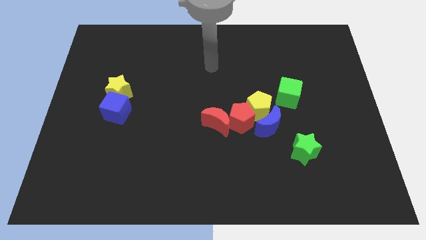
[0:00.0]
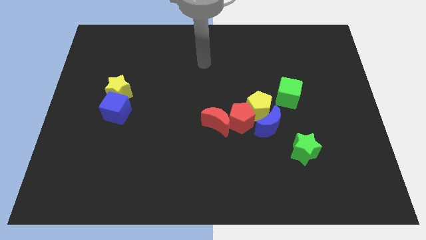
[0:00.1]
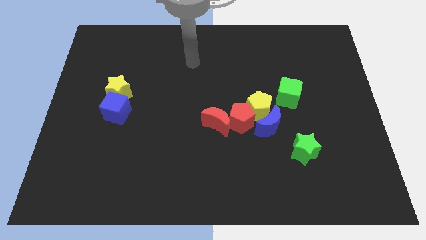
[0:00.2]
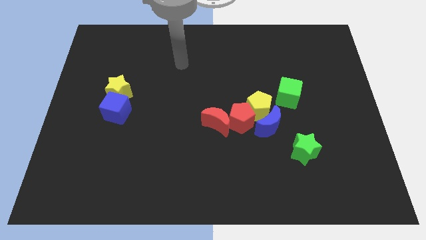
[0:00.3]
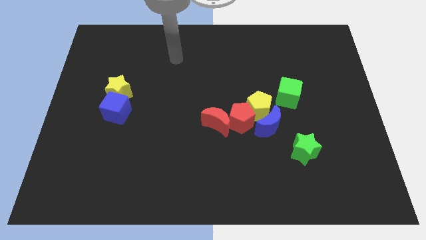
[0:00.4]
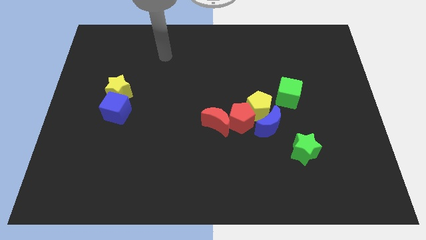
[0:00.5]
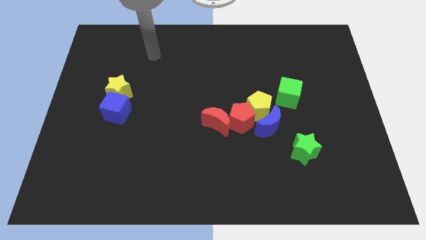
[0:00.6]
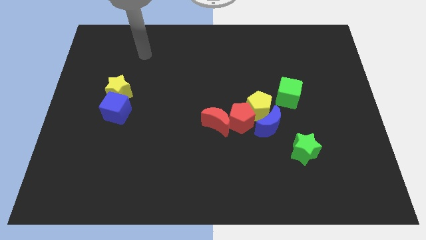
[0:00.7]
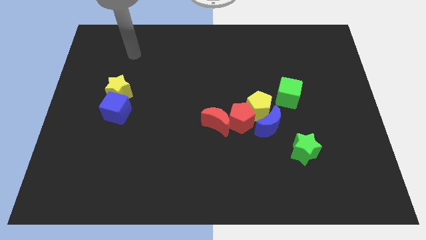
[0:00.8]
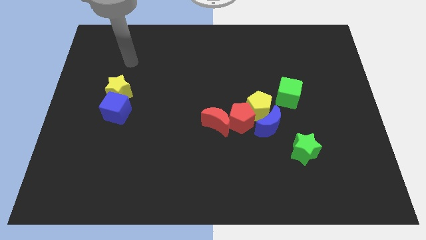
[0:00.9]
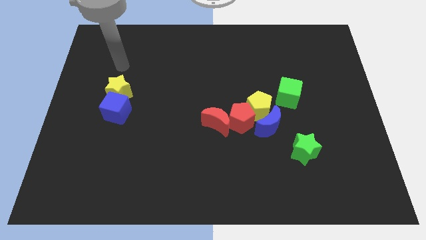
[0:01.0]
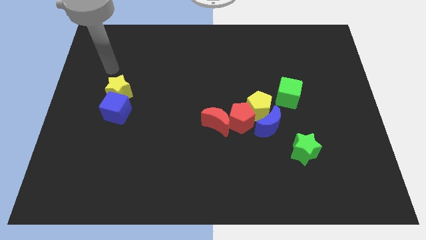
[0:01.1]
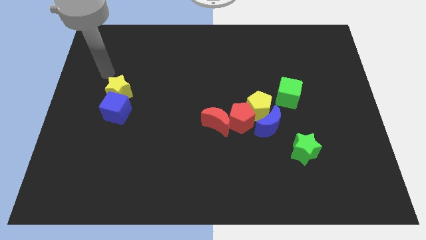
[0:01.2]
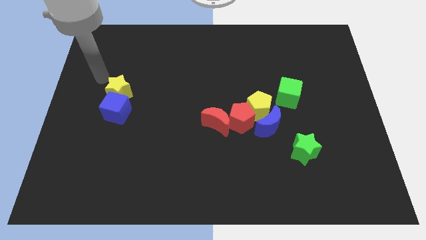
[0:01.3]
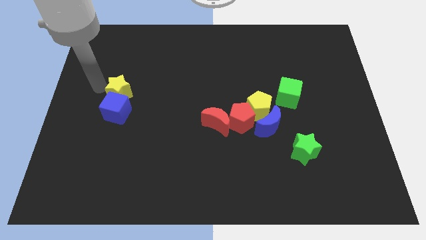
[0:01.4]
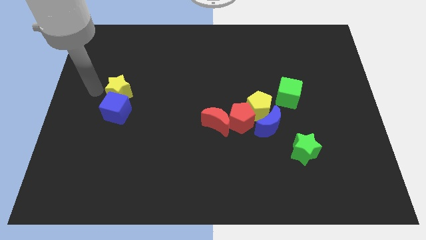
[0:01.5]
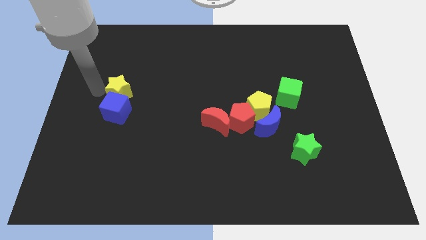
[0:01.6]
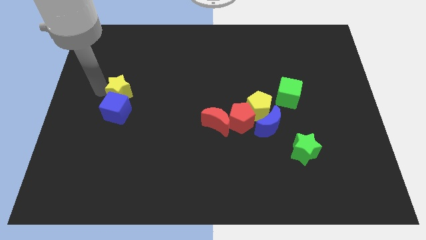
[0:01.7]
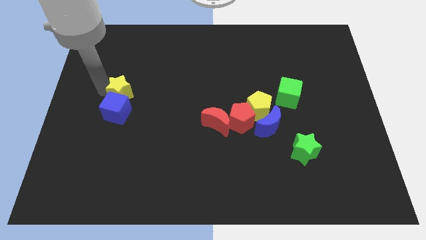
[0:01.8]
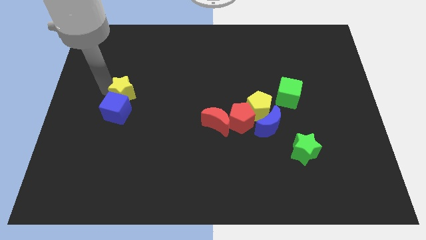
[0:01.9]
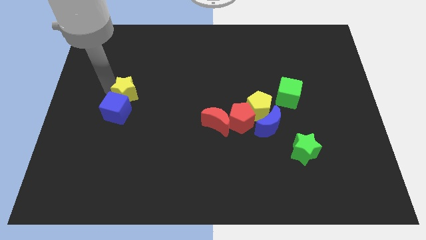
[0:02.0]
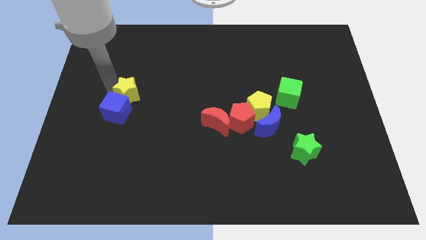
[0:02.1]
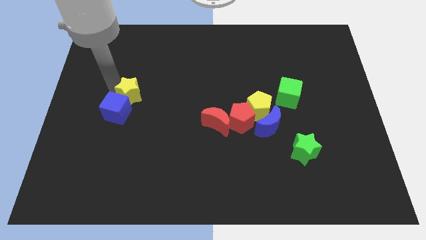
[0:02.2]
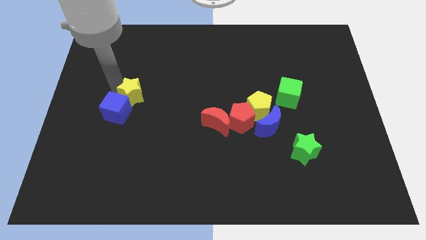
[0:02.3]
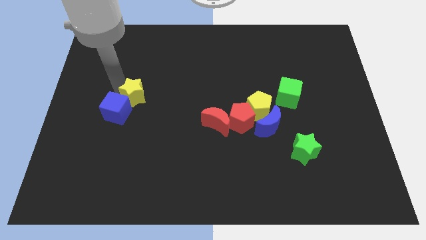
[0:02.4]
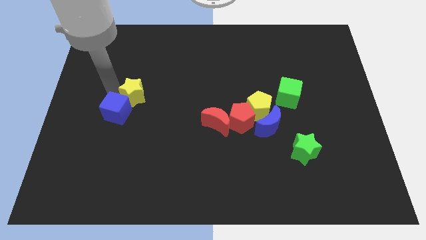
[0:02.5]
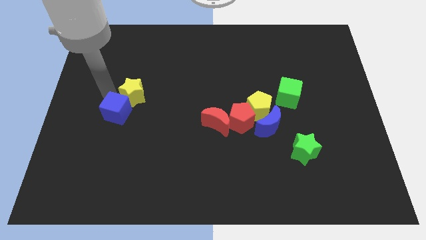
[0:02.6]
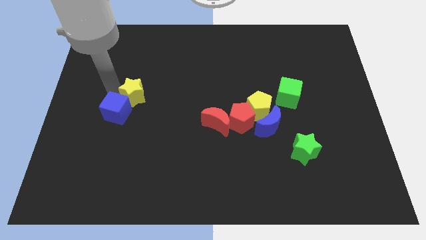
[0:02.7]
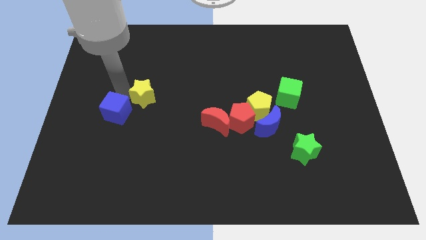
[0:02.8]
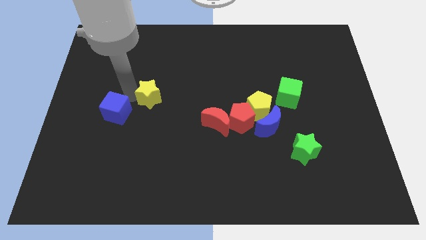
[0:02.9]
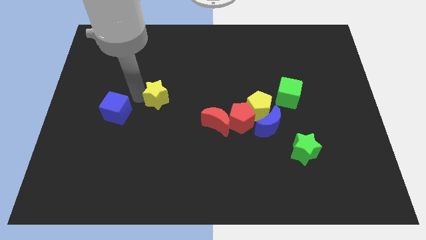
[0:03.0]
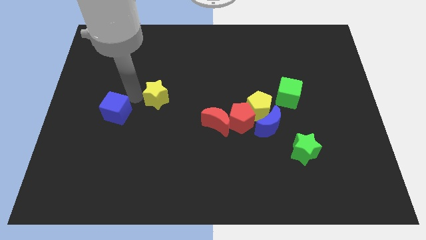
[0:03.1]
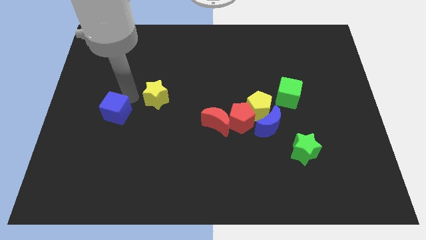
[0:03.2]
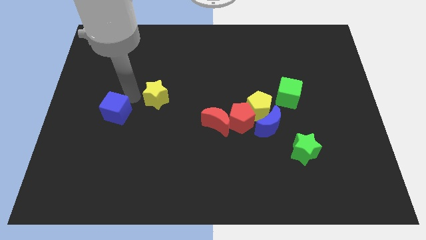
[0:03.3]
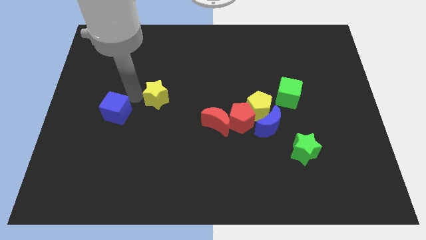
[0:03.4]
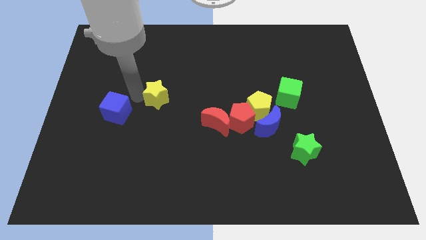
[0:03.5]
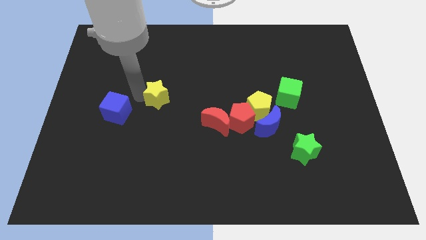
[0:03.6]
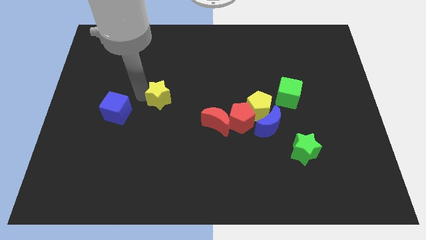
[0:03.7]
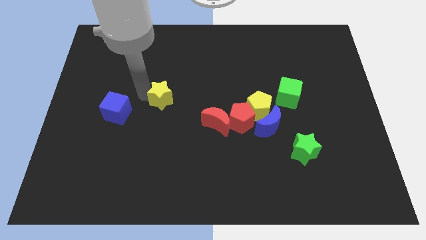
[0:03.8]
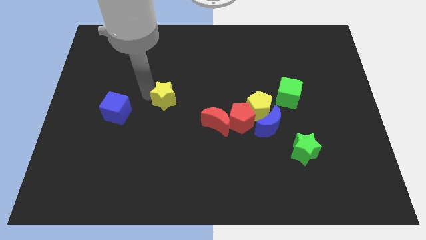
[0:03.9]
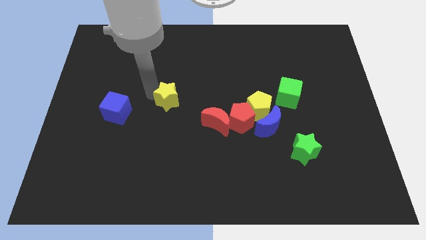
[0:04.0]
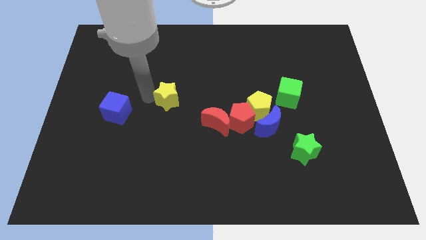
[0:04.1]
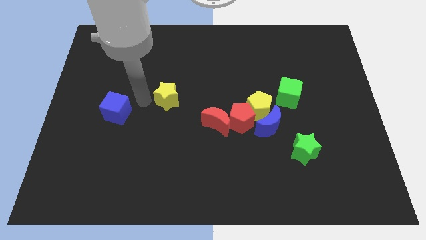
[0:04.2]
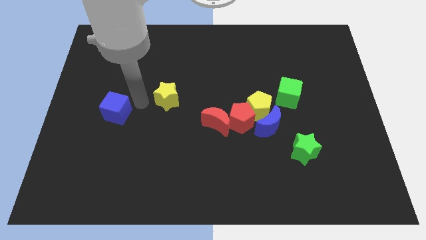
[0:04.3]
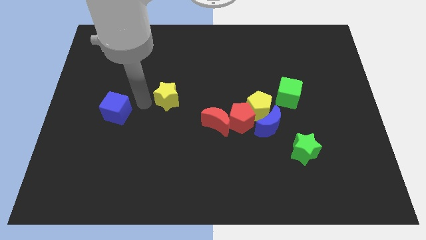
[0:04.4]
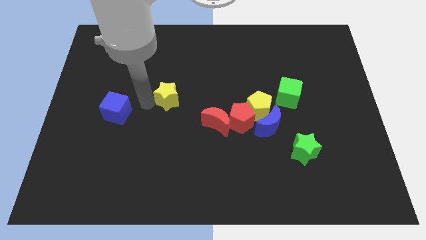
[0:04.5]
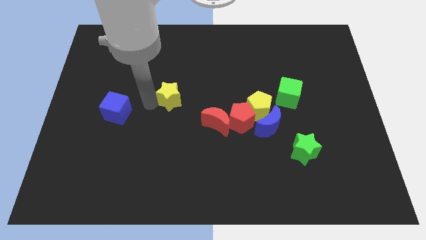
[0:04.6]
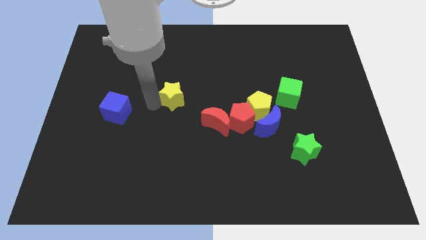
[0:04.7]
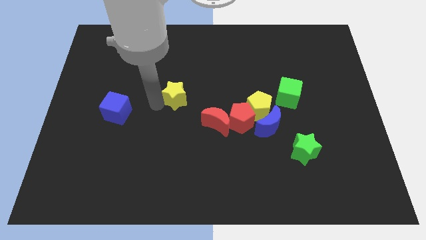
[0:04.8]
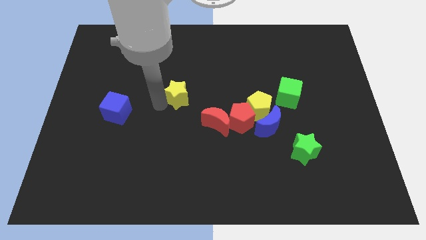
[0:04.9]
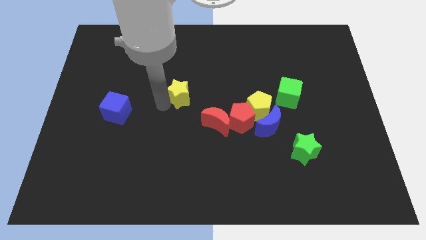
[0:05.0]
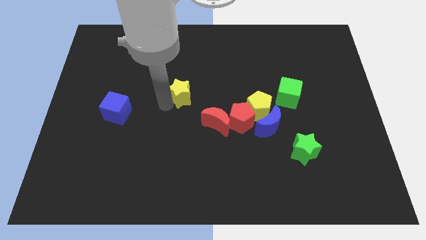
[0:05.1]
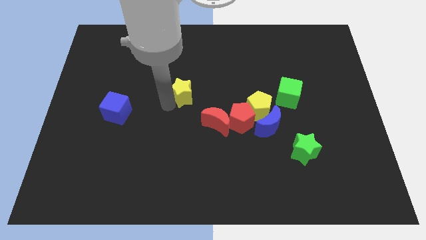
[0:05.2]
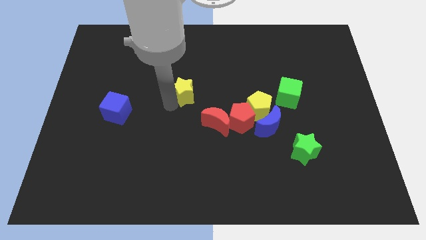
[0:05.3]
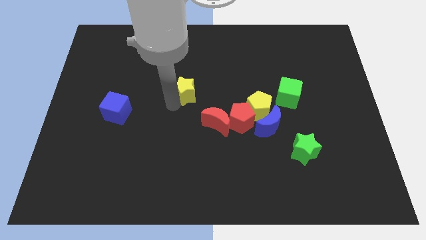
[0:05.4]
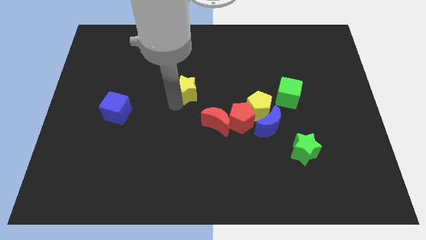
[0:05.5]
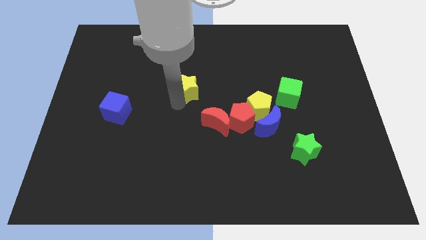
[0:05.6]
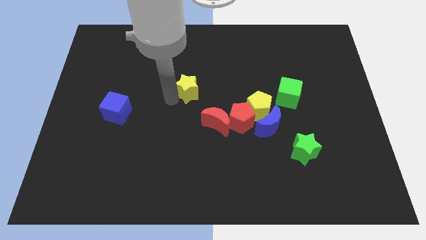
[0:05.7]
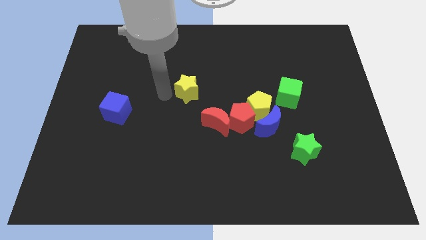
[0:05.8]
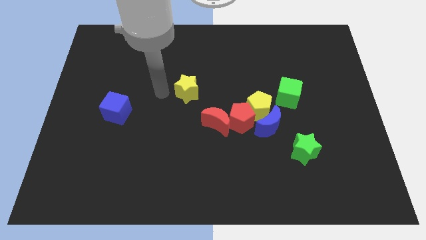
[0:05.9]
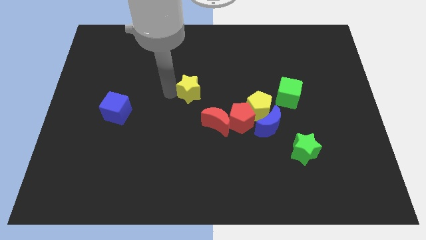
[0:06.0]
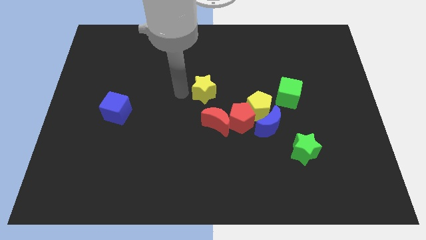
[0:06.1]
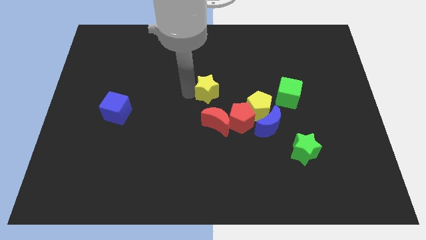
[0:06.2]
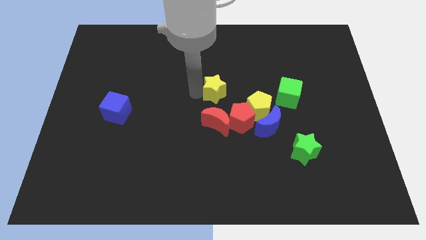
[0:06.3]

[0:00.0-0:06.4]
push the yellow star to the top left side of the yellow pentagon

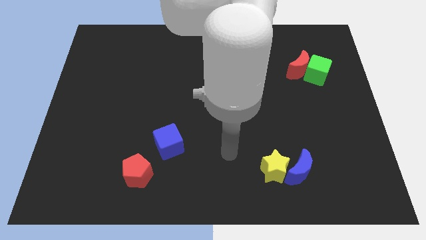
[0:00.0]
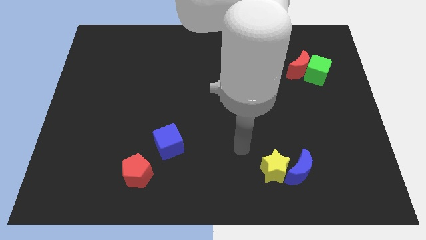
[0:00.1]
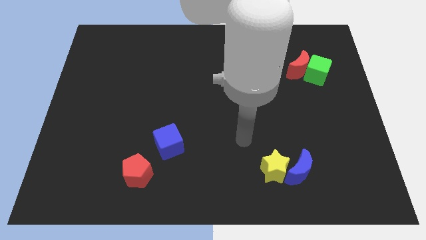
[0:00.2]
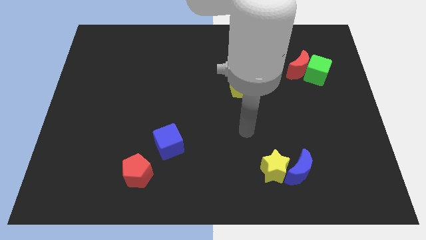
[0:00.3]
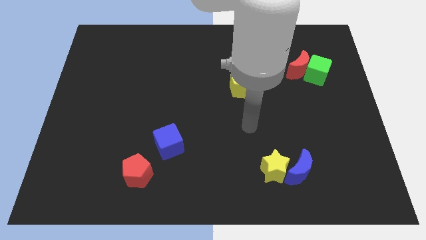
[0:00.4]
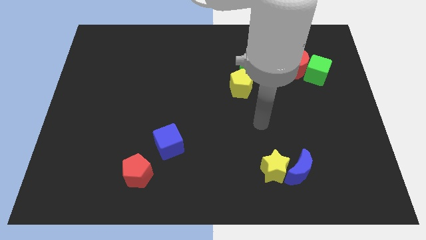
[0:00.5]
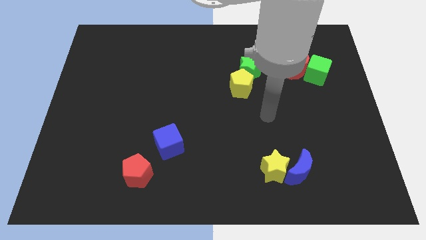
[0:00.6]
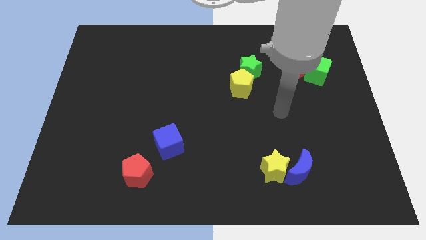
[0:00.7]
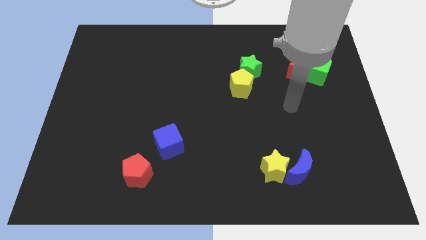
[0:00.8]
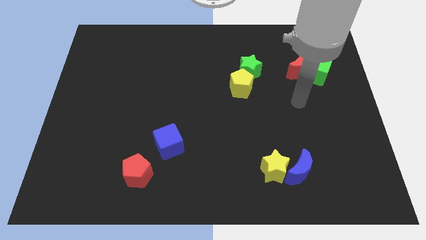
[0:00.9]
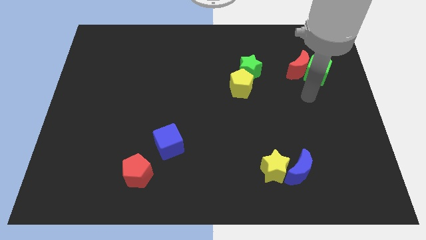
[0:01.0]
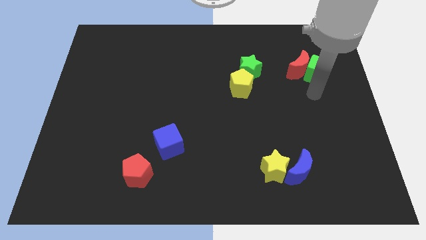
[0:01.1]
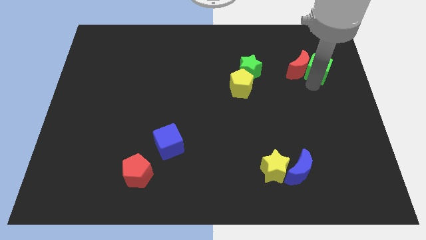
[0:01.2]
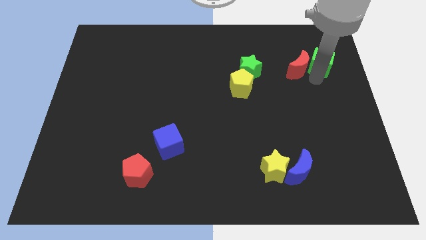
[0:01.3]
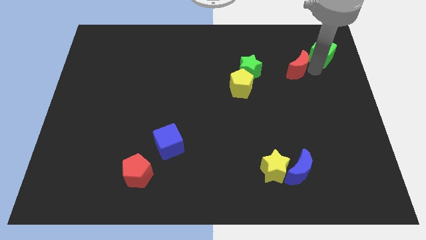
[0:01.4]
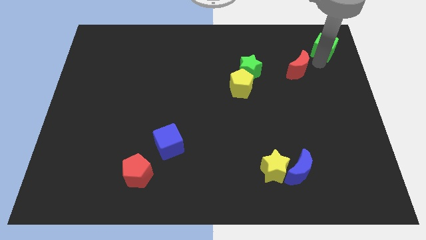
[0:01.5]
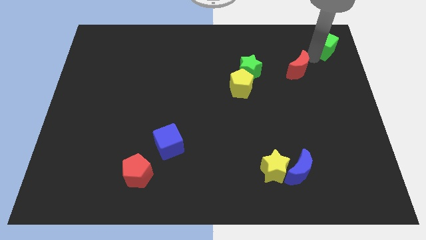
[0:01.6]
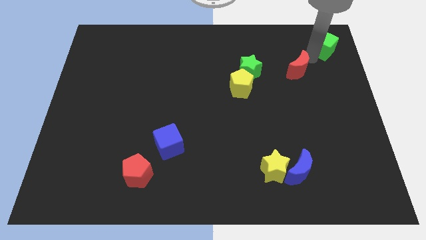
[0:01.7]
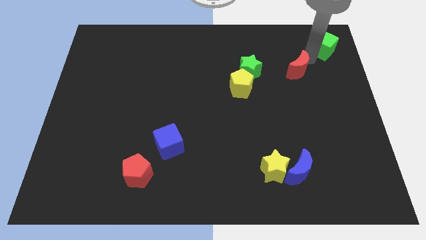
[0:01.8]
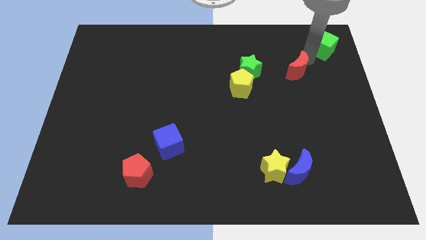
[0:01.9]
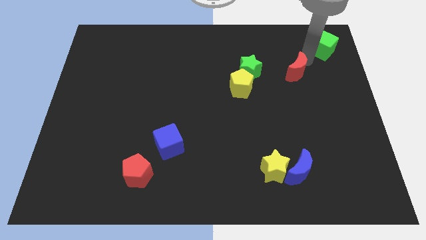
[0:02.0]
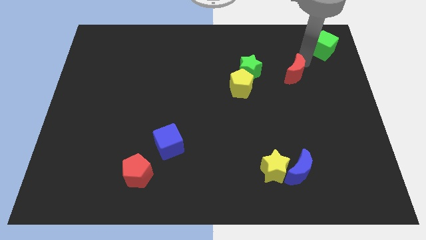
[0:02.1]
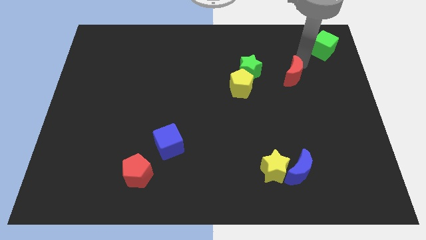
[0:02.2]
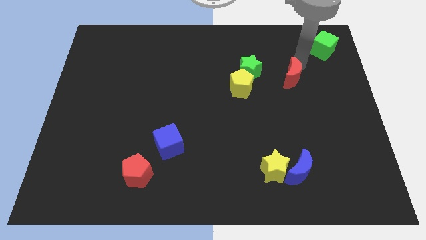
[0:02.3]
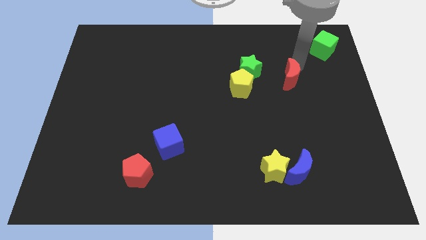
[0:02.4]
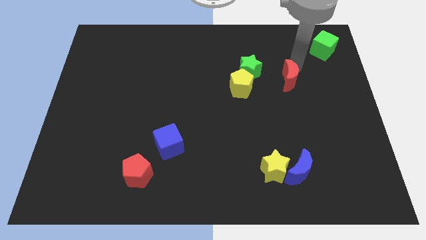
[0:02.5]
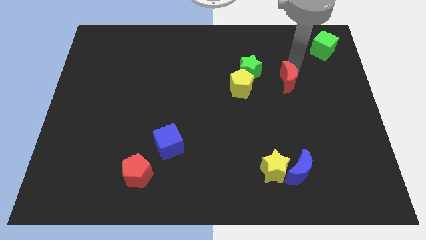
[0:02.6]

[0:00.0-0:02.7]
slide the red moon diagonally down and to the right of the green star
